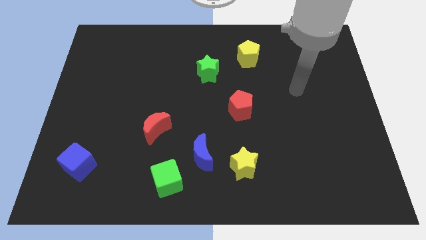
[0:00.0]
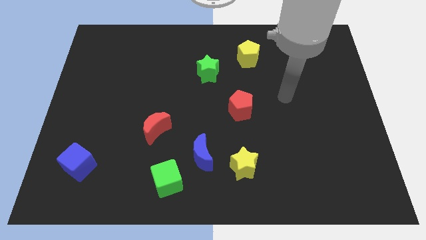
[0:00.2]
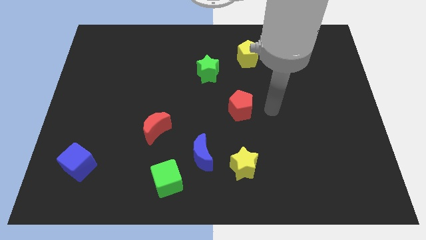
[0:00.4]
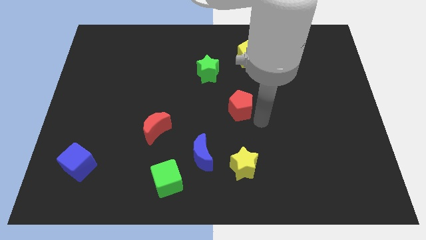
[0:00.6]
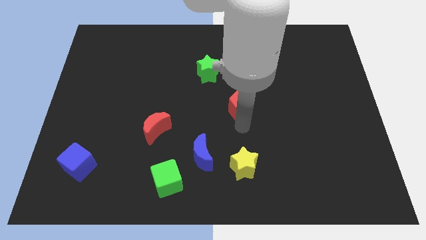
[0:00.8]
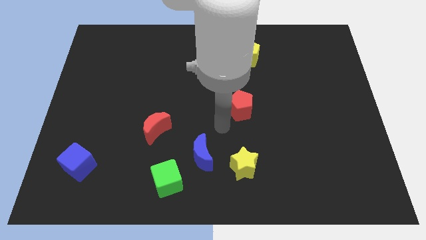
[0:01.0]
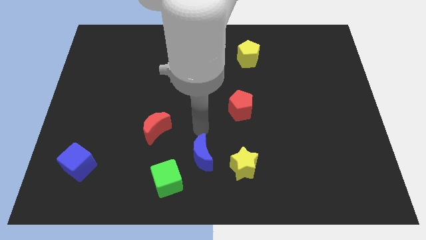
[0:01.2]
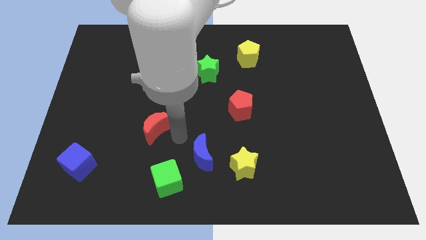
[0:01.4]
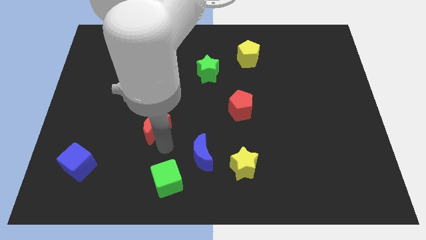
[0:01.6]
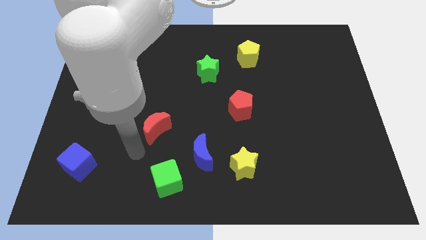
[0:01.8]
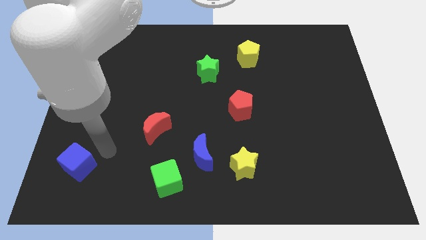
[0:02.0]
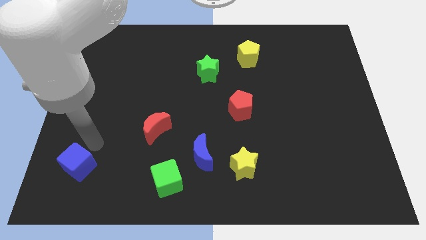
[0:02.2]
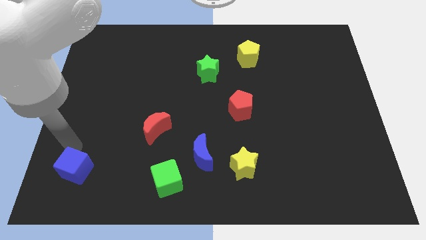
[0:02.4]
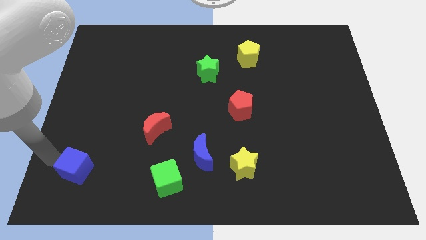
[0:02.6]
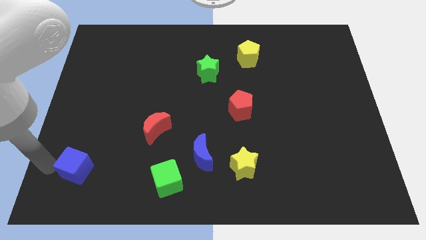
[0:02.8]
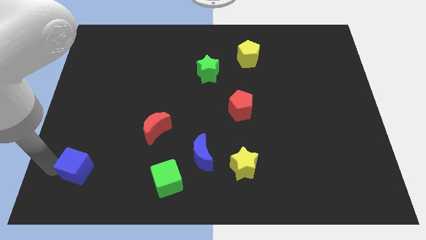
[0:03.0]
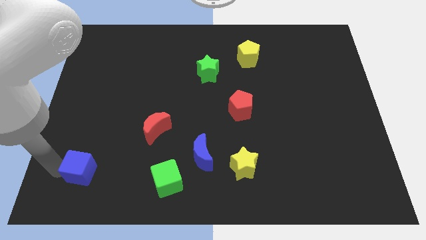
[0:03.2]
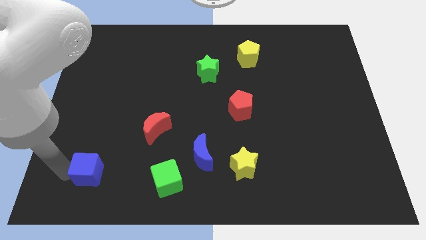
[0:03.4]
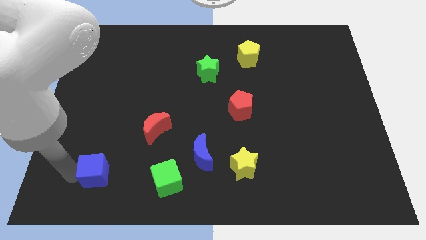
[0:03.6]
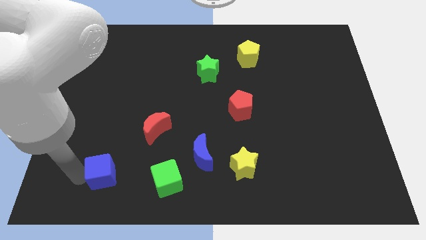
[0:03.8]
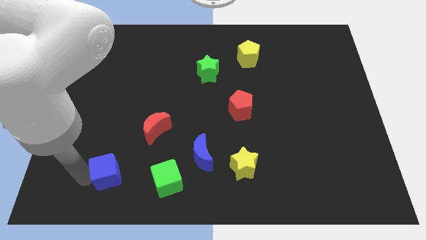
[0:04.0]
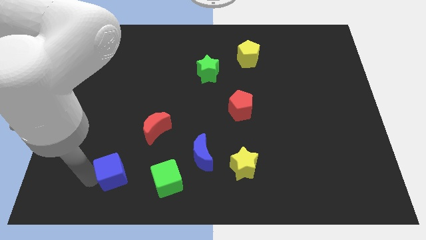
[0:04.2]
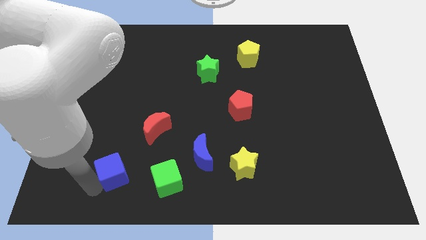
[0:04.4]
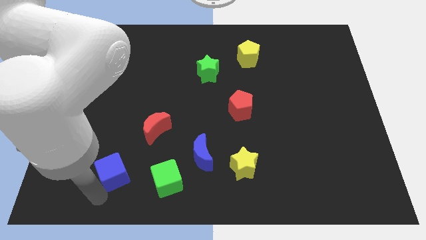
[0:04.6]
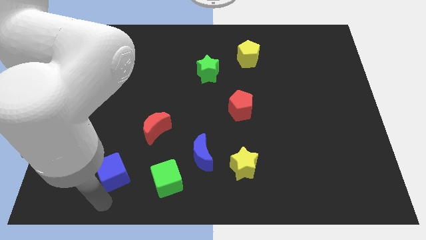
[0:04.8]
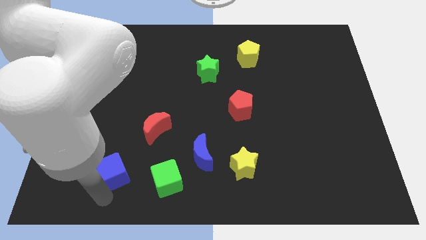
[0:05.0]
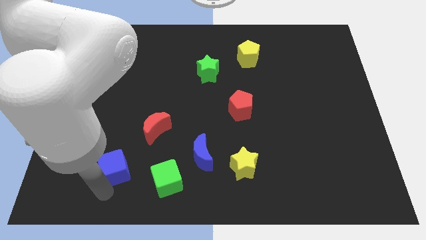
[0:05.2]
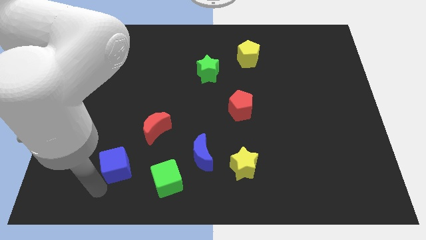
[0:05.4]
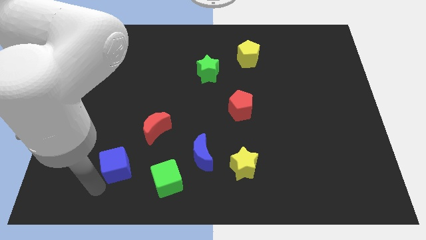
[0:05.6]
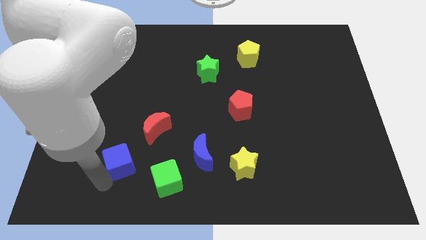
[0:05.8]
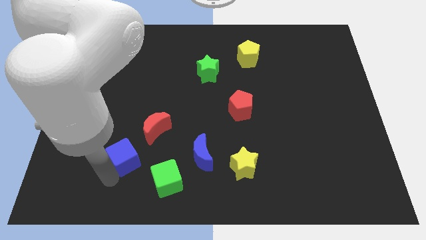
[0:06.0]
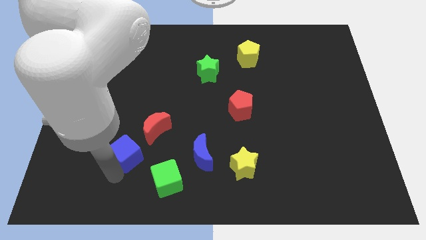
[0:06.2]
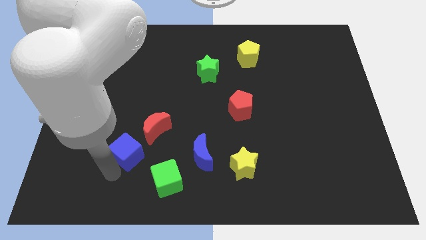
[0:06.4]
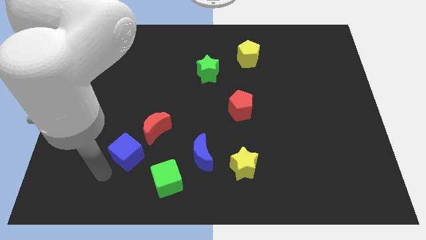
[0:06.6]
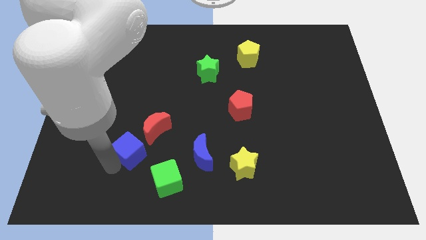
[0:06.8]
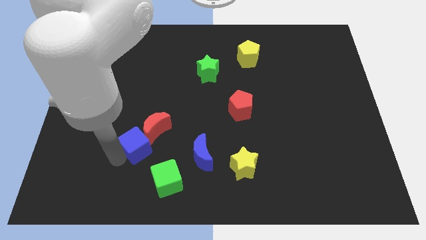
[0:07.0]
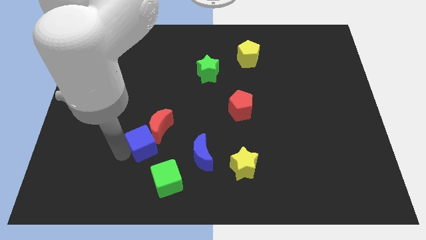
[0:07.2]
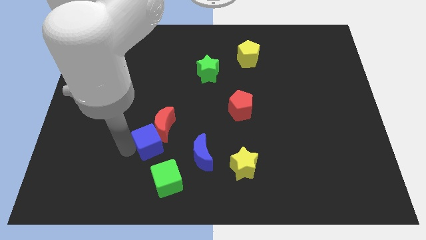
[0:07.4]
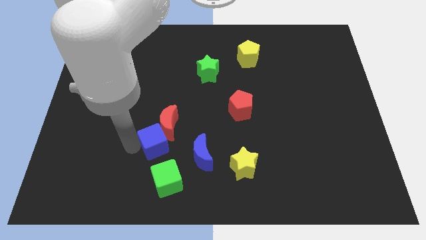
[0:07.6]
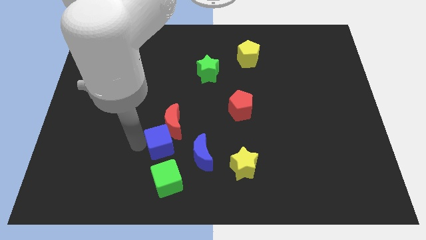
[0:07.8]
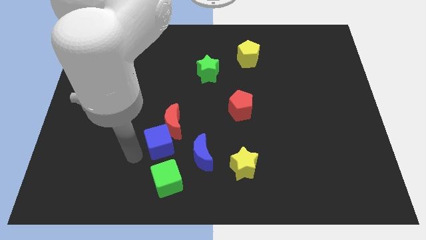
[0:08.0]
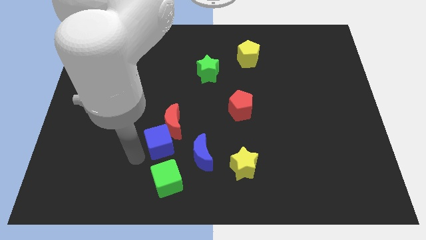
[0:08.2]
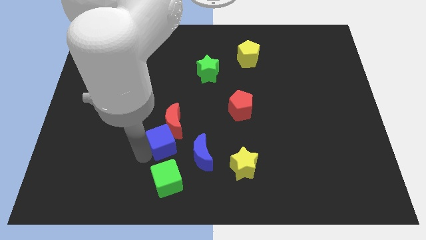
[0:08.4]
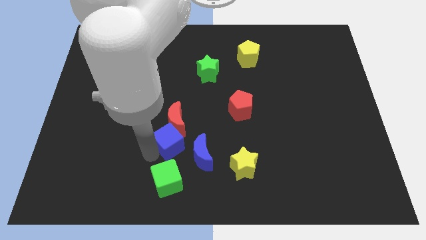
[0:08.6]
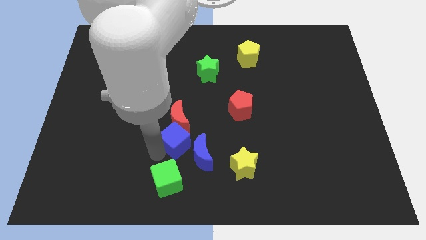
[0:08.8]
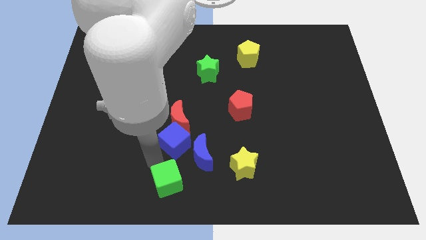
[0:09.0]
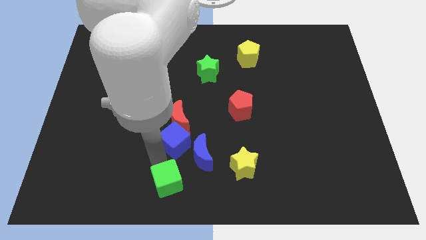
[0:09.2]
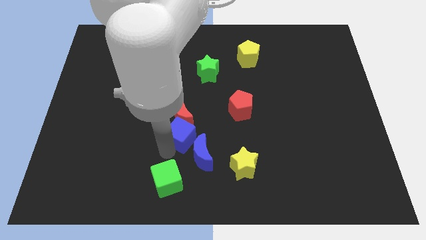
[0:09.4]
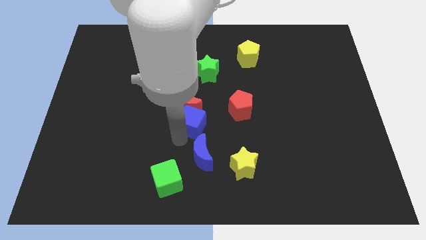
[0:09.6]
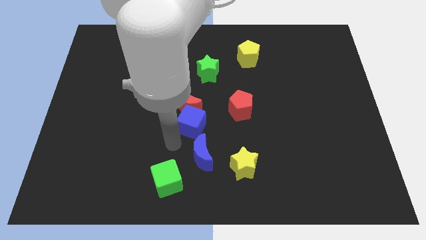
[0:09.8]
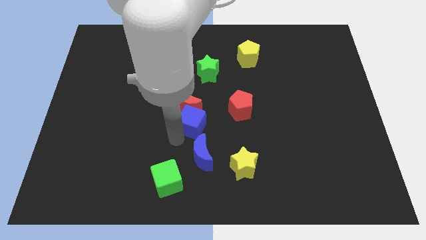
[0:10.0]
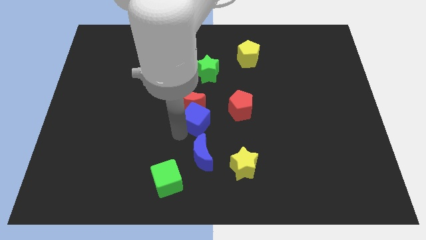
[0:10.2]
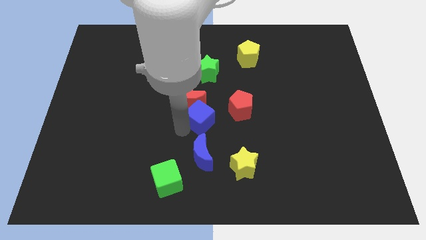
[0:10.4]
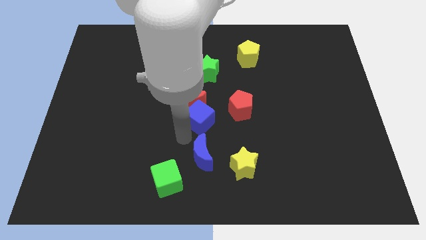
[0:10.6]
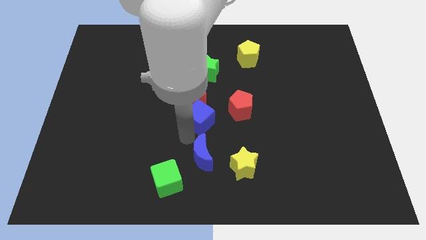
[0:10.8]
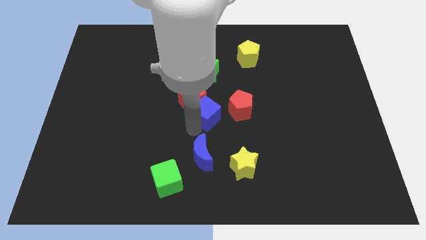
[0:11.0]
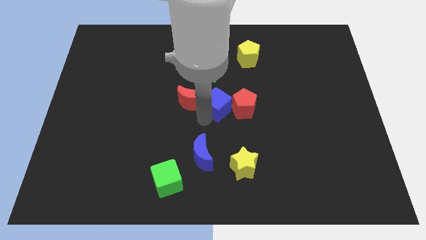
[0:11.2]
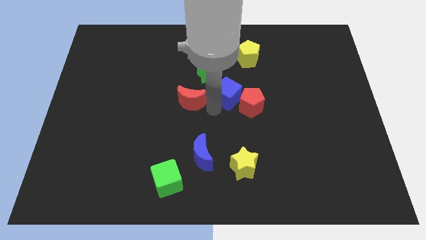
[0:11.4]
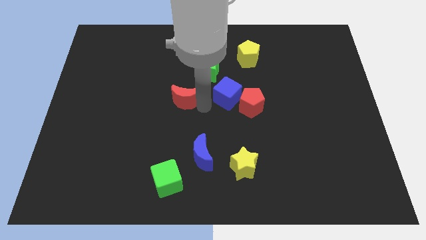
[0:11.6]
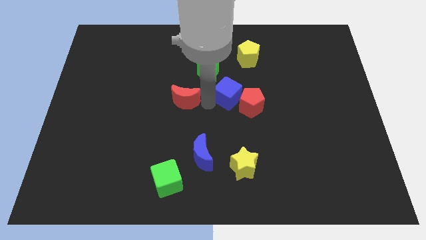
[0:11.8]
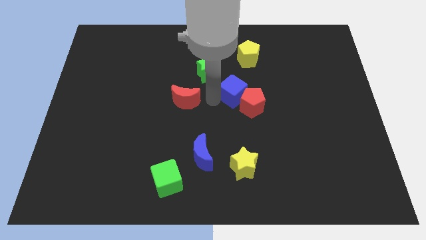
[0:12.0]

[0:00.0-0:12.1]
put the blue cube below the yellow pentagon
